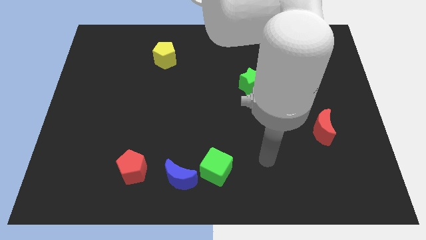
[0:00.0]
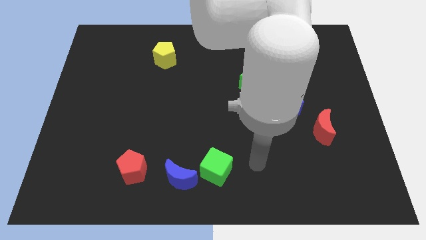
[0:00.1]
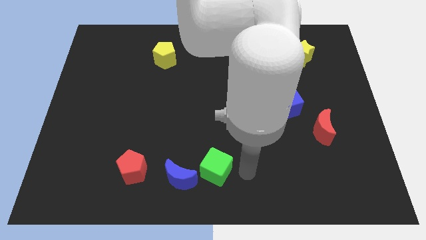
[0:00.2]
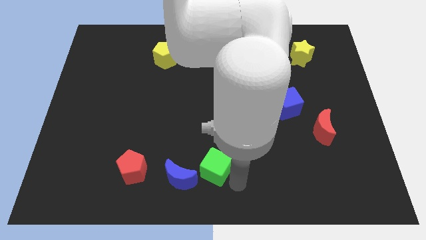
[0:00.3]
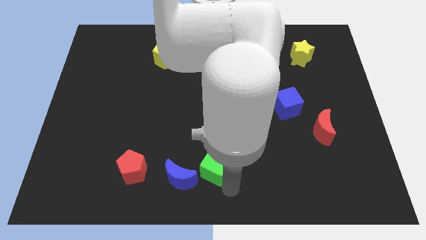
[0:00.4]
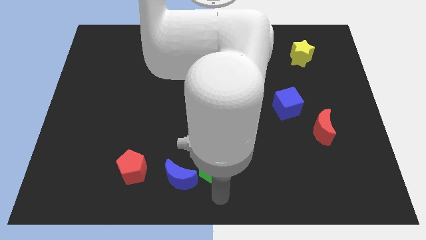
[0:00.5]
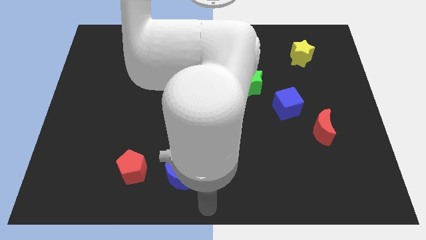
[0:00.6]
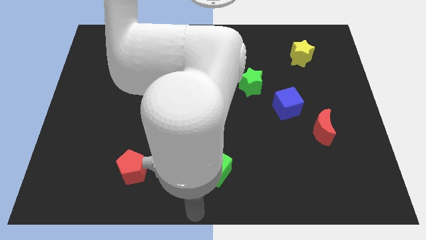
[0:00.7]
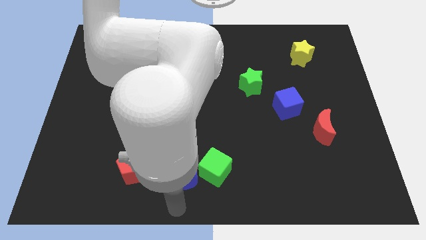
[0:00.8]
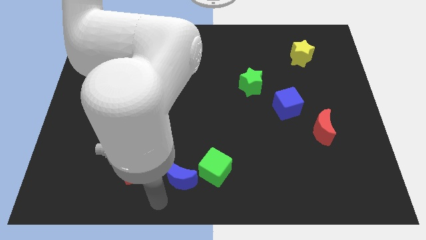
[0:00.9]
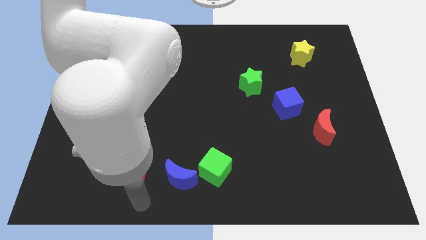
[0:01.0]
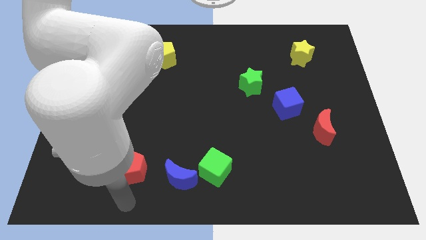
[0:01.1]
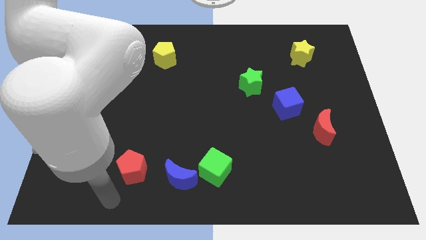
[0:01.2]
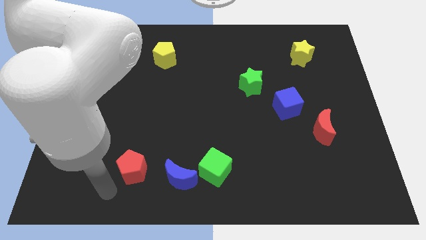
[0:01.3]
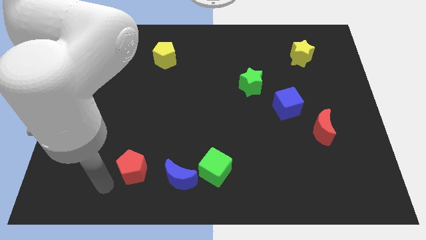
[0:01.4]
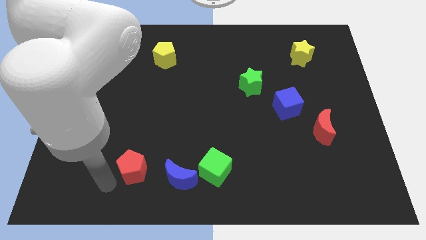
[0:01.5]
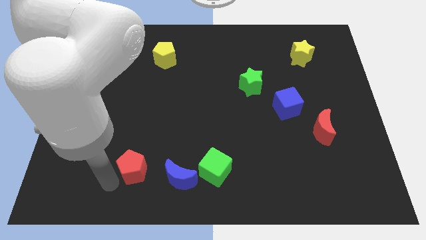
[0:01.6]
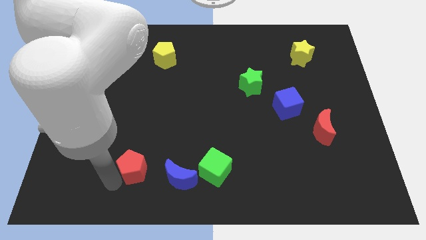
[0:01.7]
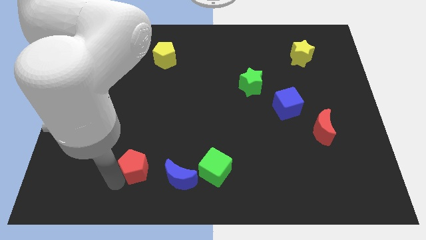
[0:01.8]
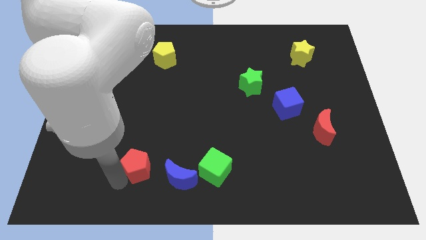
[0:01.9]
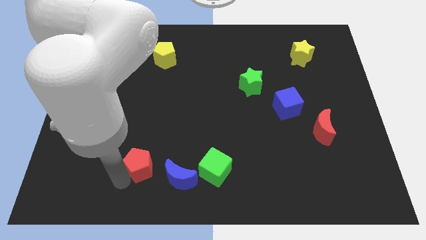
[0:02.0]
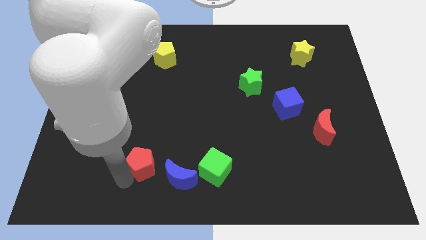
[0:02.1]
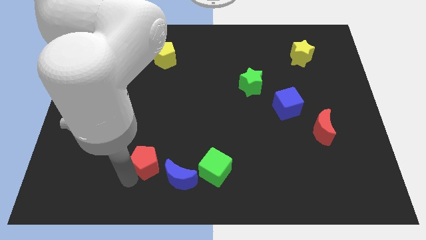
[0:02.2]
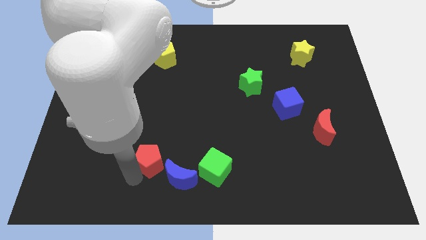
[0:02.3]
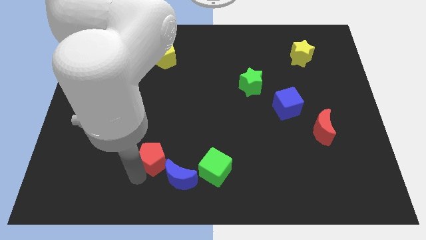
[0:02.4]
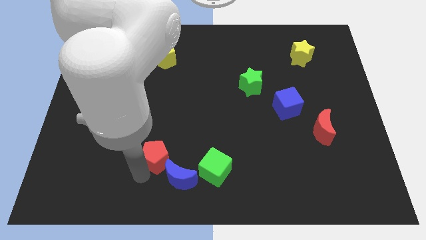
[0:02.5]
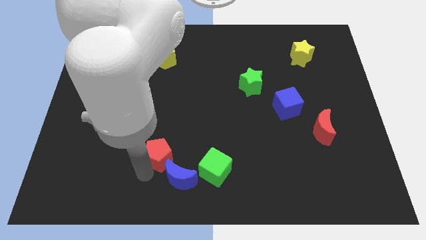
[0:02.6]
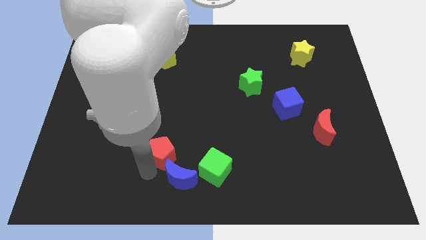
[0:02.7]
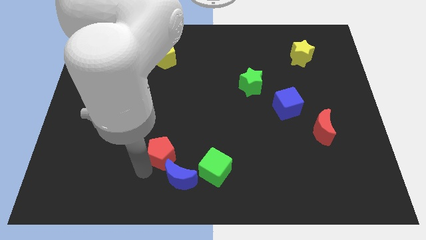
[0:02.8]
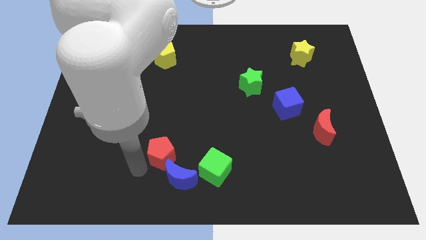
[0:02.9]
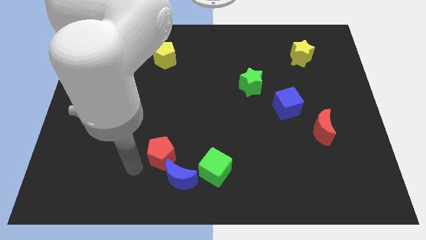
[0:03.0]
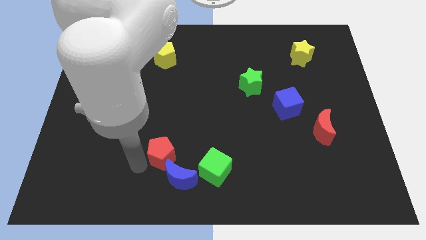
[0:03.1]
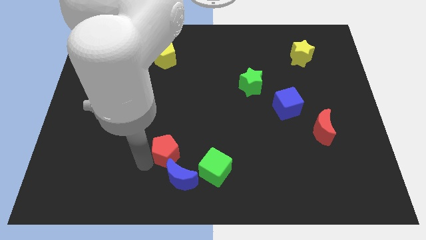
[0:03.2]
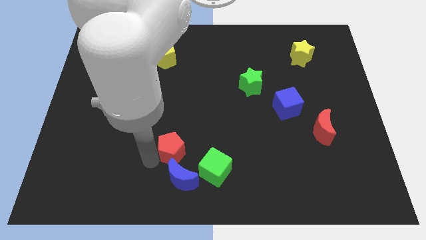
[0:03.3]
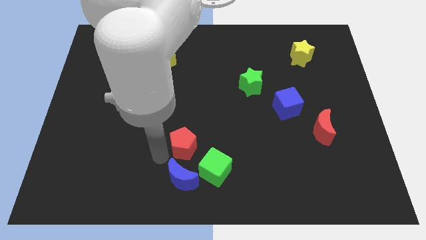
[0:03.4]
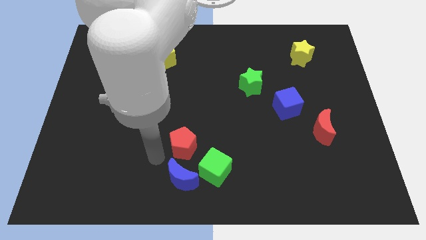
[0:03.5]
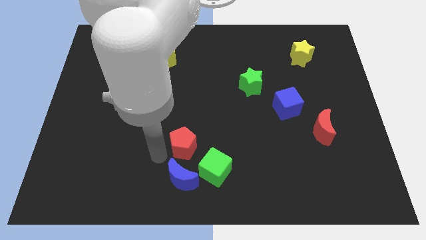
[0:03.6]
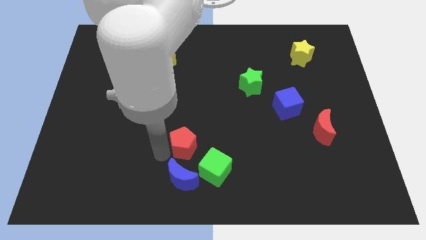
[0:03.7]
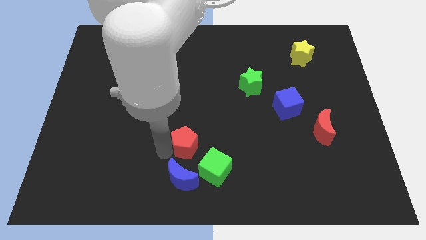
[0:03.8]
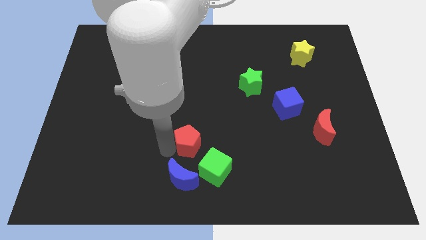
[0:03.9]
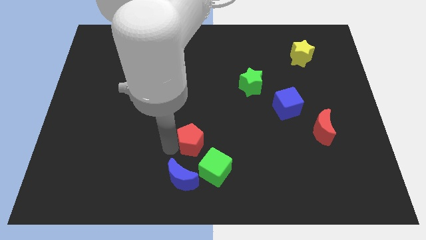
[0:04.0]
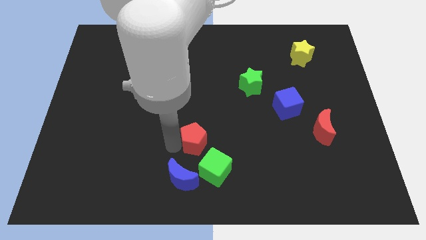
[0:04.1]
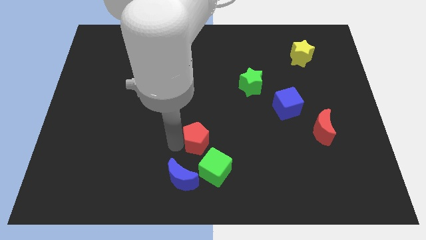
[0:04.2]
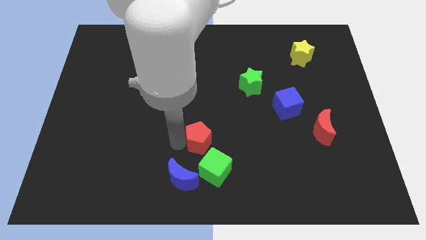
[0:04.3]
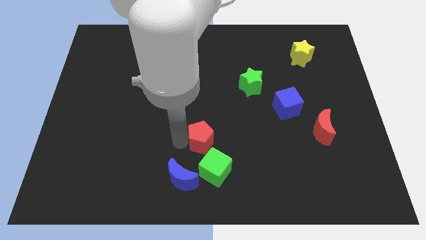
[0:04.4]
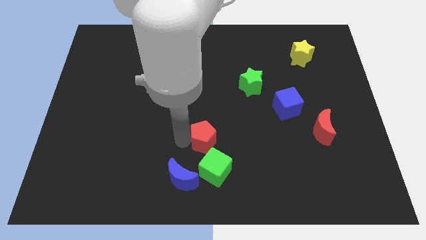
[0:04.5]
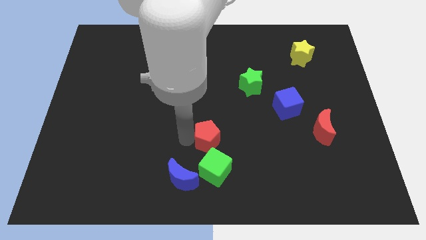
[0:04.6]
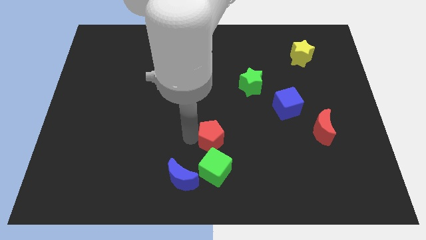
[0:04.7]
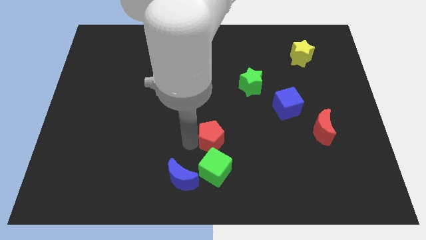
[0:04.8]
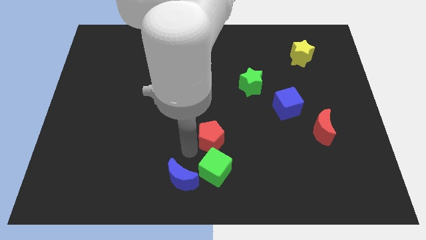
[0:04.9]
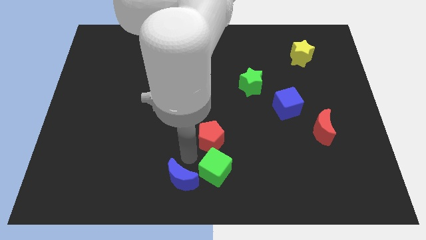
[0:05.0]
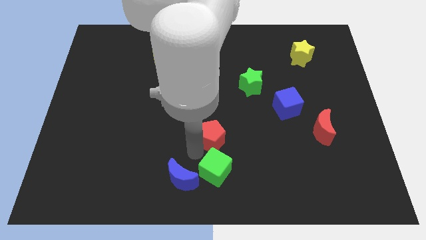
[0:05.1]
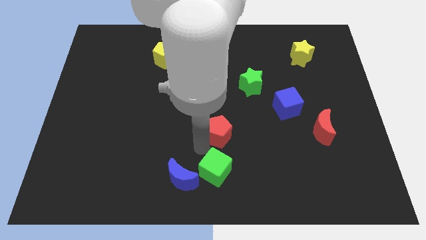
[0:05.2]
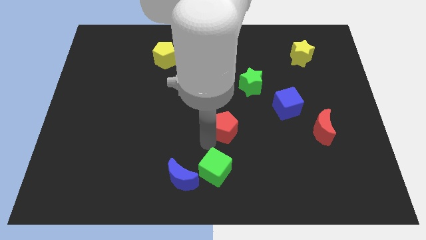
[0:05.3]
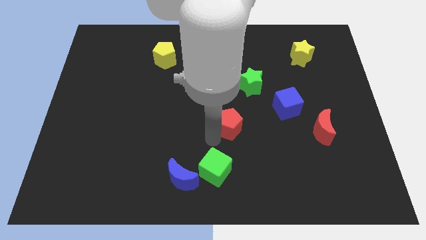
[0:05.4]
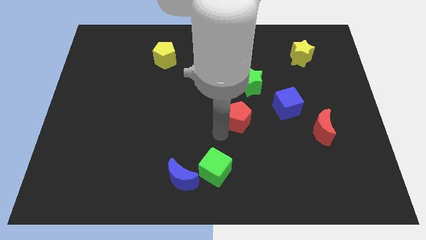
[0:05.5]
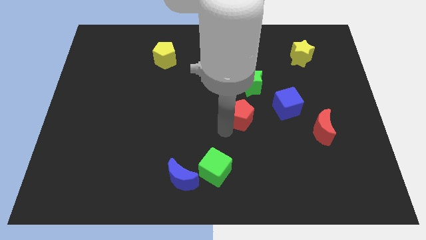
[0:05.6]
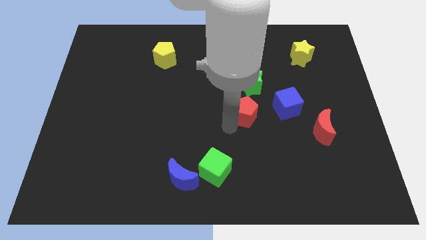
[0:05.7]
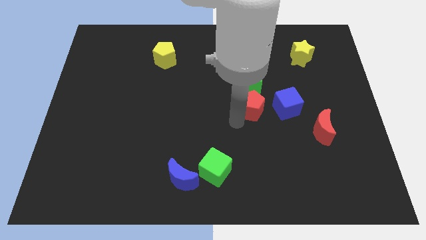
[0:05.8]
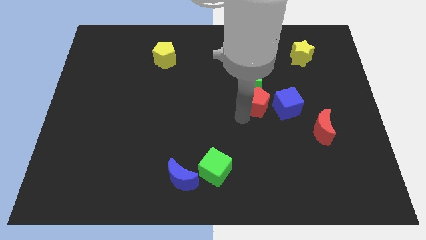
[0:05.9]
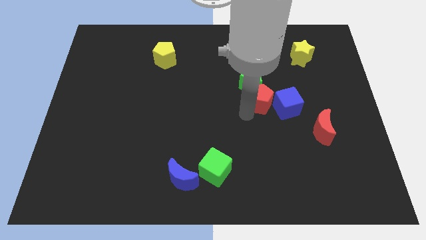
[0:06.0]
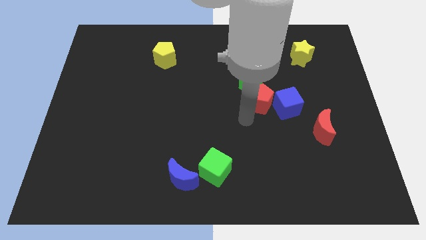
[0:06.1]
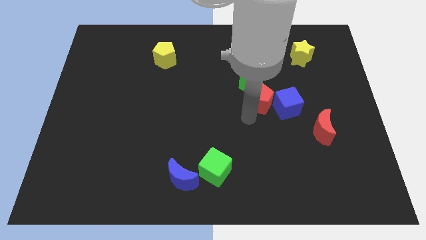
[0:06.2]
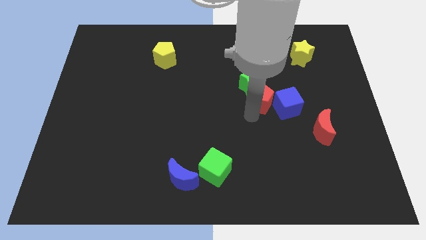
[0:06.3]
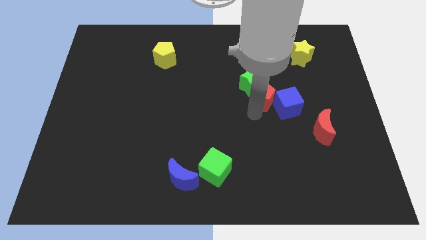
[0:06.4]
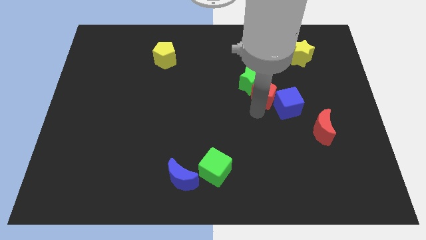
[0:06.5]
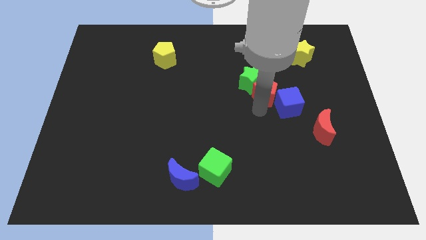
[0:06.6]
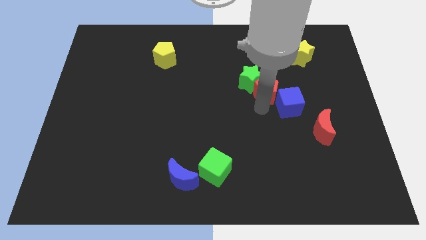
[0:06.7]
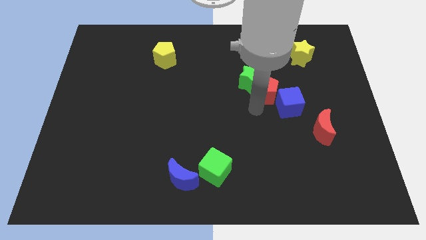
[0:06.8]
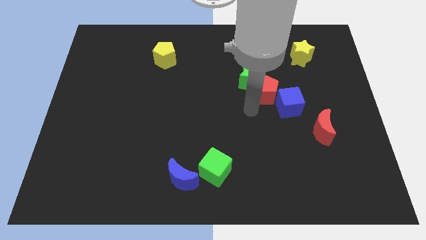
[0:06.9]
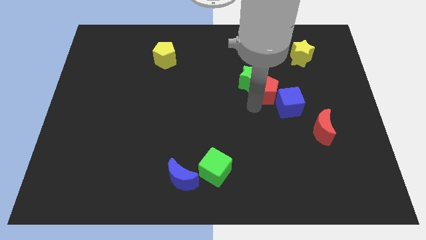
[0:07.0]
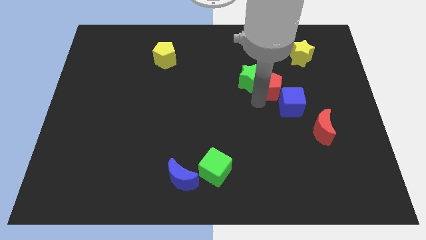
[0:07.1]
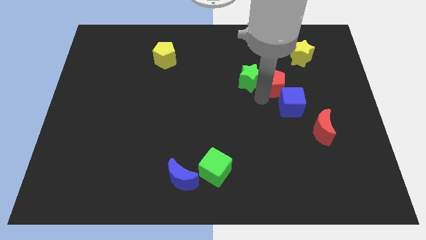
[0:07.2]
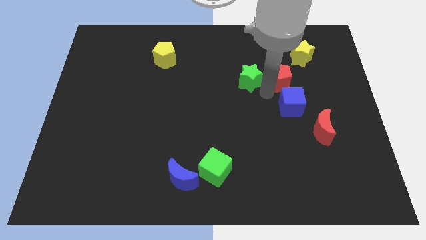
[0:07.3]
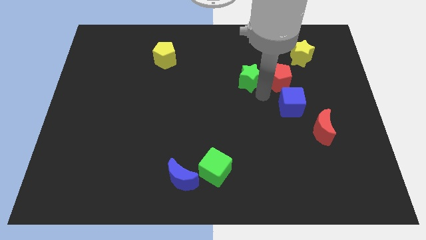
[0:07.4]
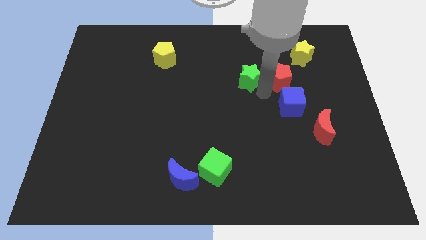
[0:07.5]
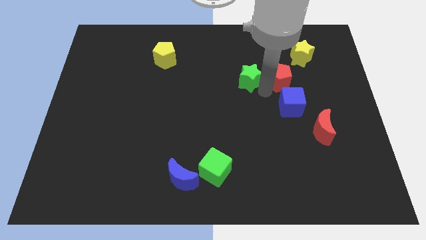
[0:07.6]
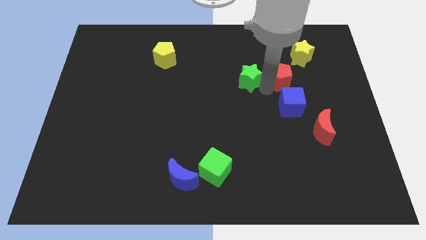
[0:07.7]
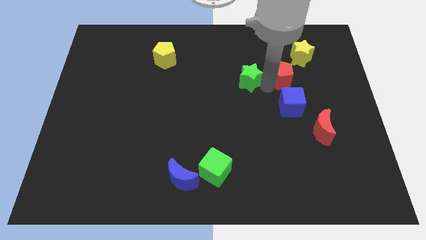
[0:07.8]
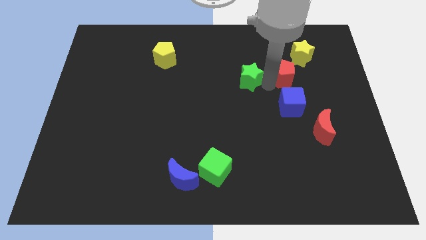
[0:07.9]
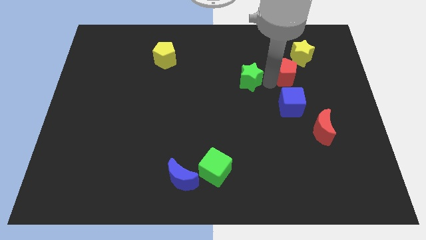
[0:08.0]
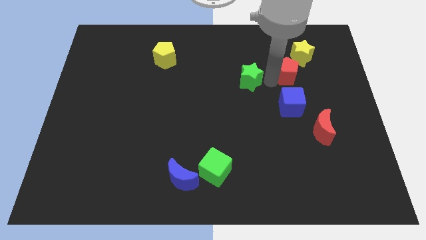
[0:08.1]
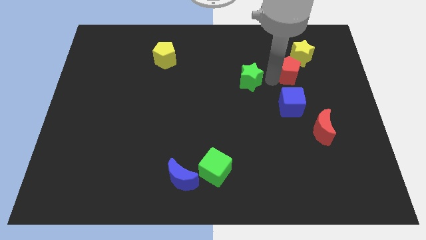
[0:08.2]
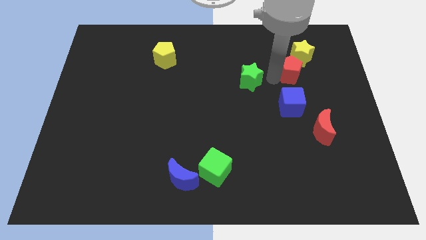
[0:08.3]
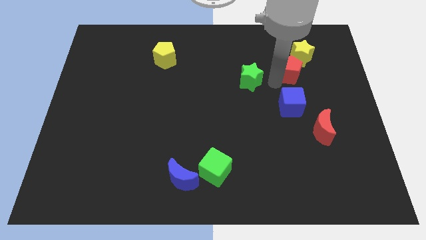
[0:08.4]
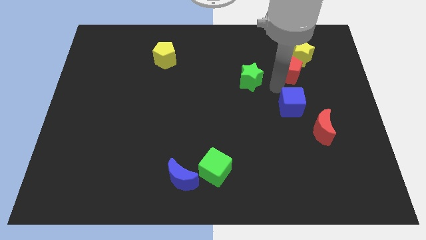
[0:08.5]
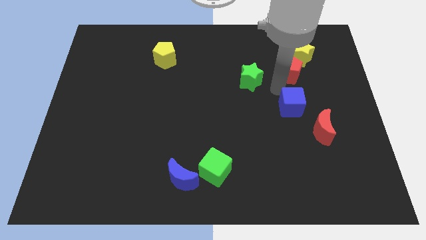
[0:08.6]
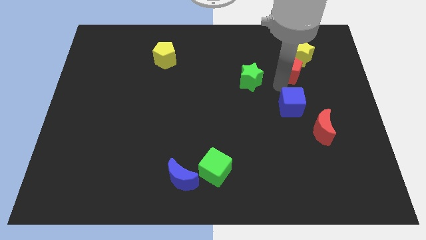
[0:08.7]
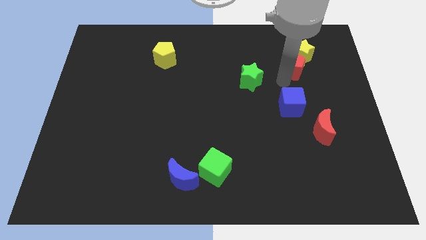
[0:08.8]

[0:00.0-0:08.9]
put the red pentagon to the yellow star
